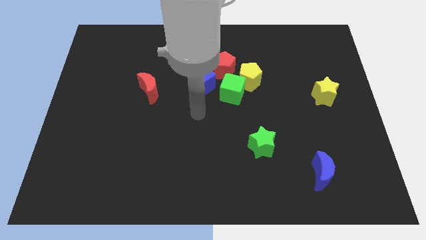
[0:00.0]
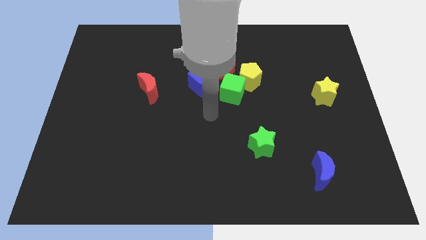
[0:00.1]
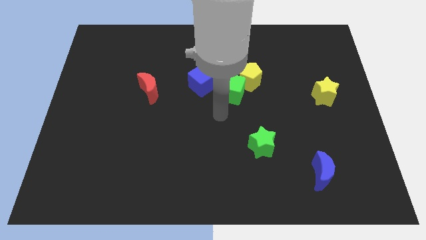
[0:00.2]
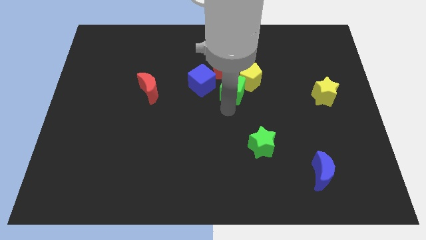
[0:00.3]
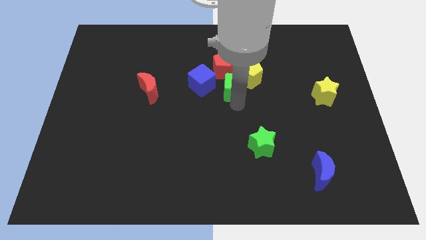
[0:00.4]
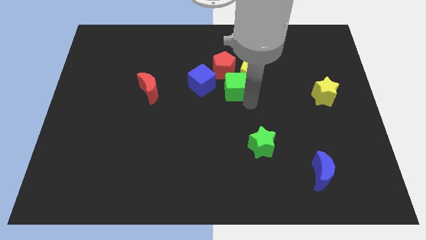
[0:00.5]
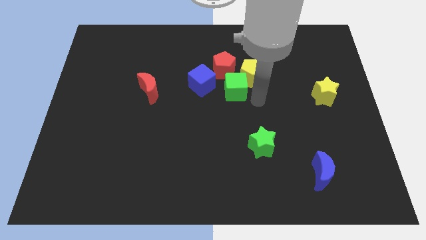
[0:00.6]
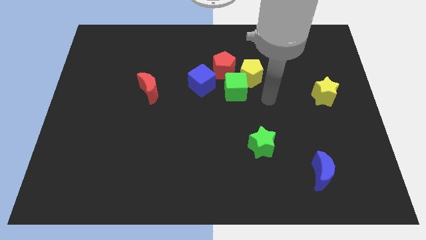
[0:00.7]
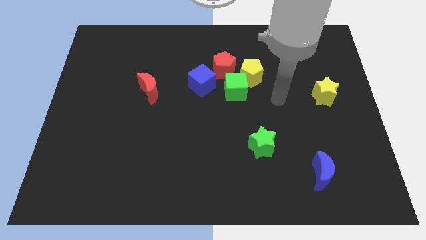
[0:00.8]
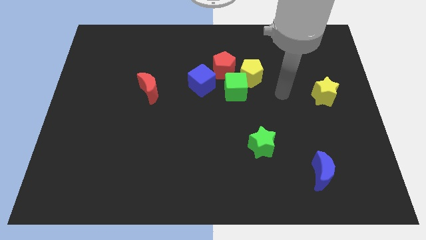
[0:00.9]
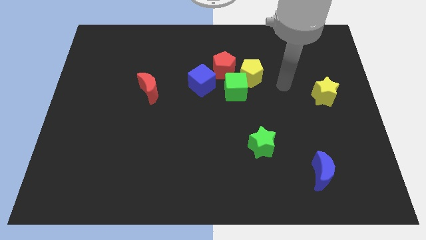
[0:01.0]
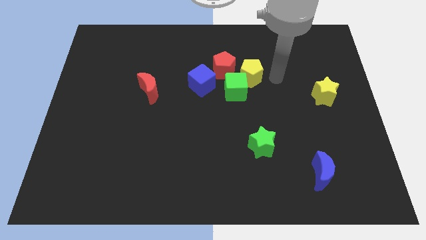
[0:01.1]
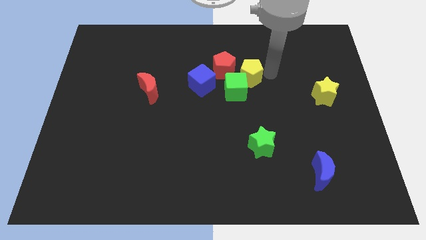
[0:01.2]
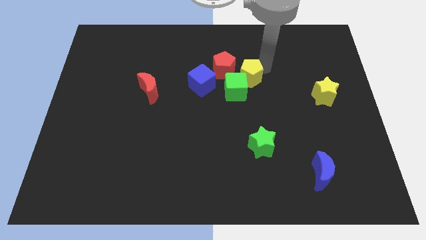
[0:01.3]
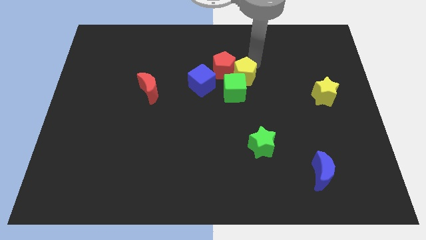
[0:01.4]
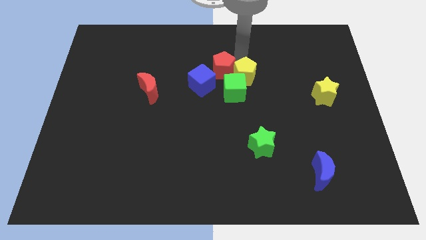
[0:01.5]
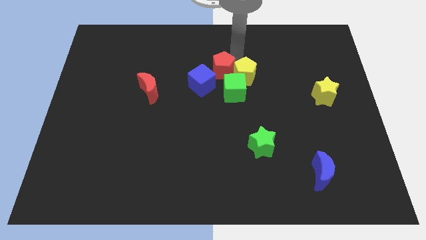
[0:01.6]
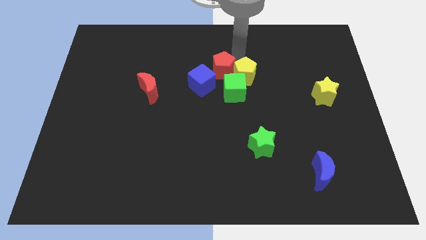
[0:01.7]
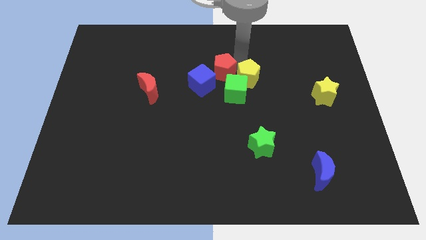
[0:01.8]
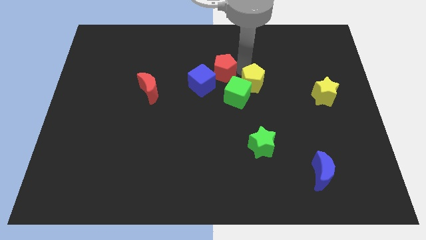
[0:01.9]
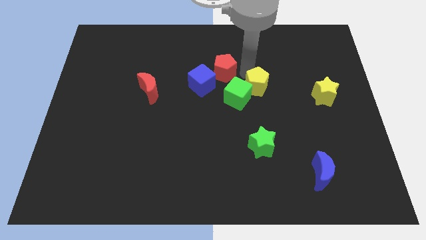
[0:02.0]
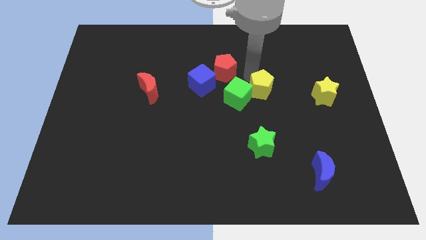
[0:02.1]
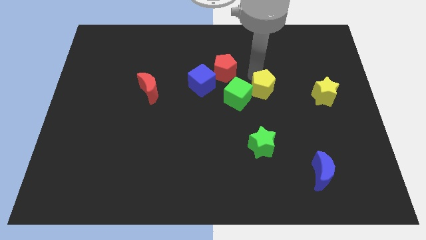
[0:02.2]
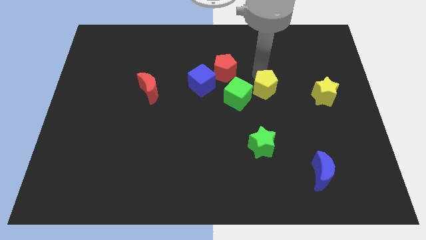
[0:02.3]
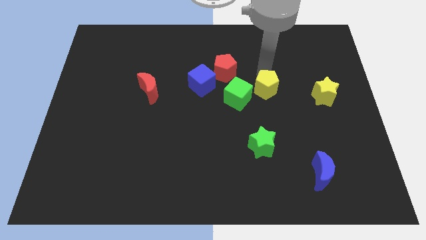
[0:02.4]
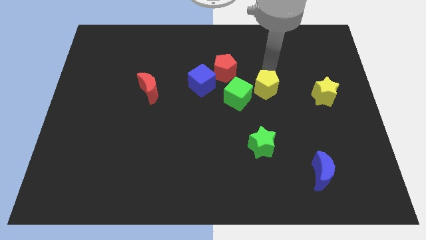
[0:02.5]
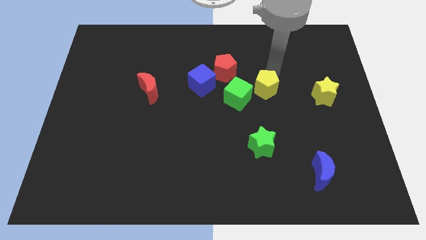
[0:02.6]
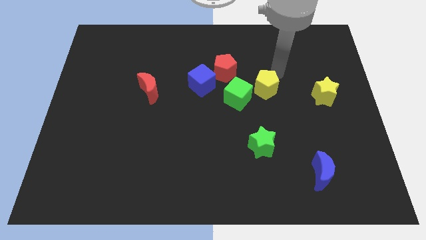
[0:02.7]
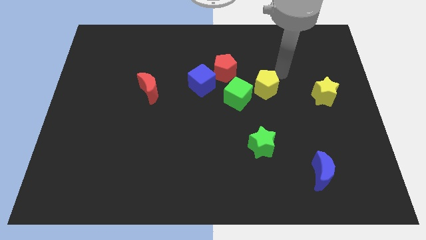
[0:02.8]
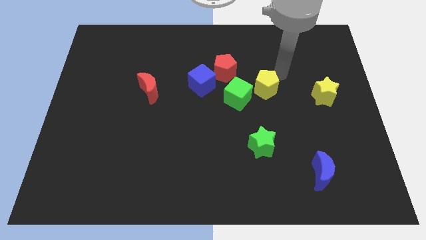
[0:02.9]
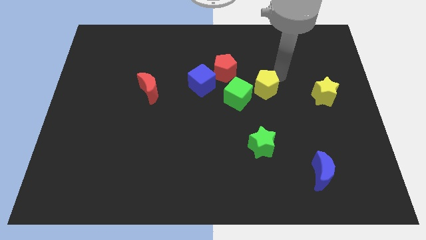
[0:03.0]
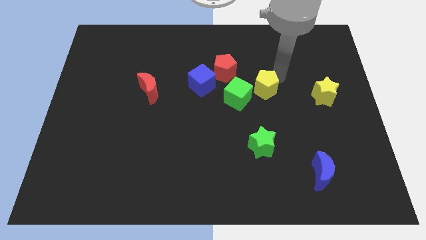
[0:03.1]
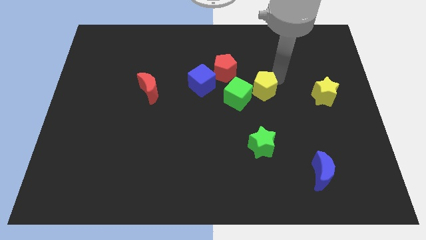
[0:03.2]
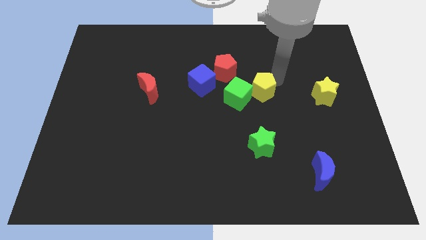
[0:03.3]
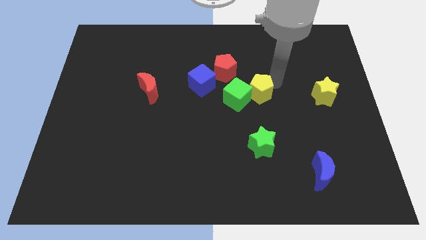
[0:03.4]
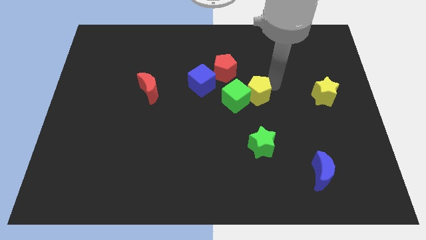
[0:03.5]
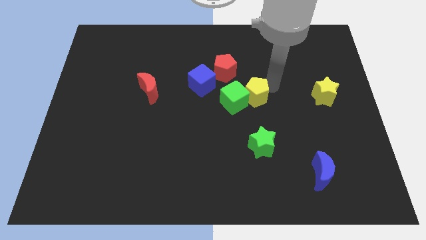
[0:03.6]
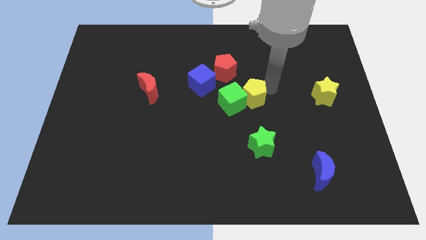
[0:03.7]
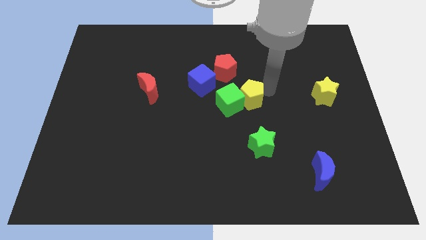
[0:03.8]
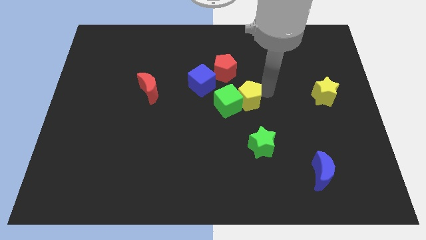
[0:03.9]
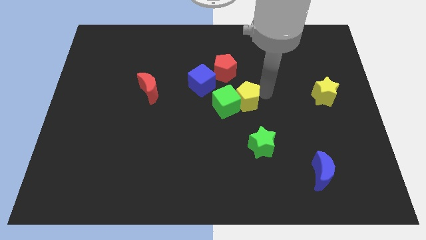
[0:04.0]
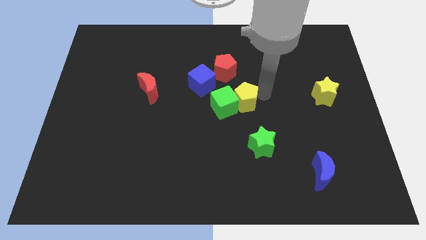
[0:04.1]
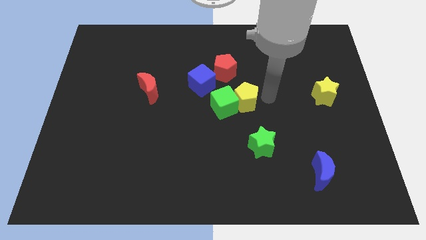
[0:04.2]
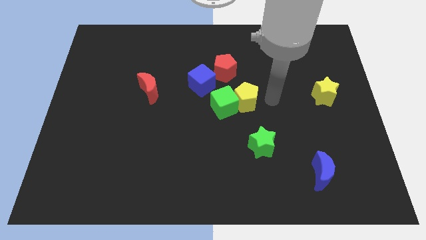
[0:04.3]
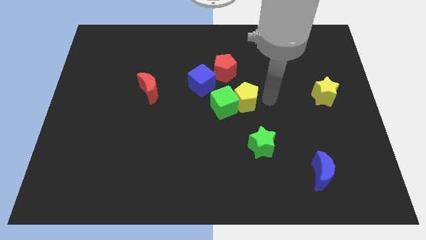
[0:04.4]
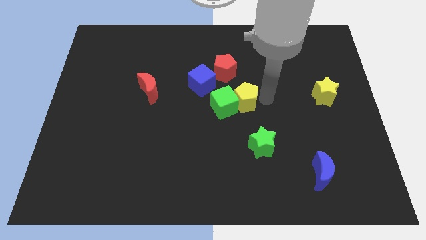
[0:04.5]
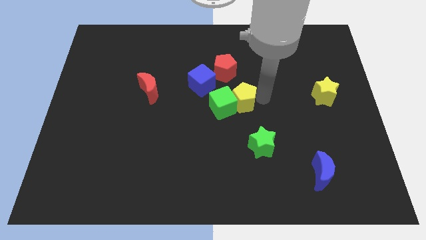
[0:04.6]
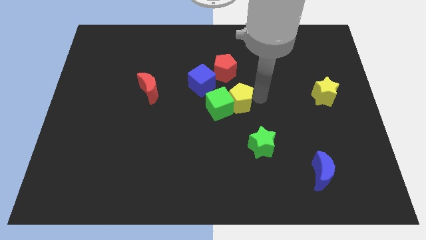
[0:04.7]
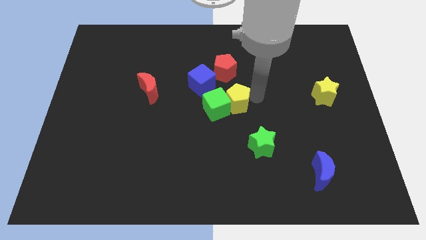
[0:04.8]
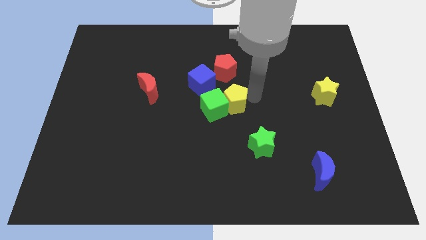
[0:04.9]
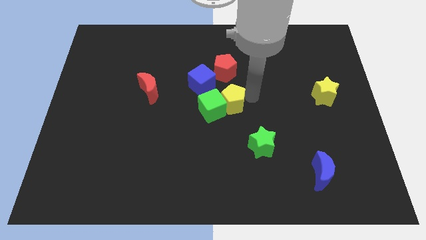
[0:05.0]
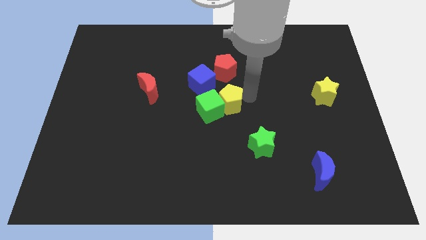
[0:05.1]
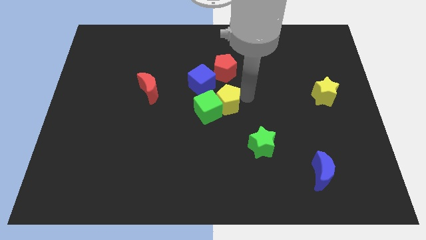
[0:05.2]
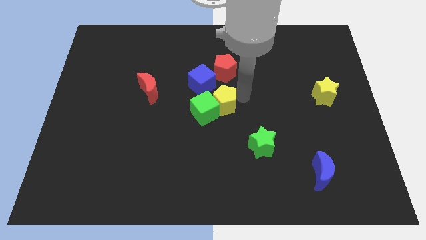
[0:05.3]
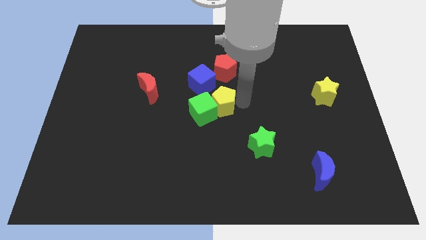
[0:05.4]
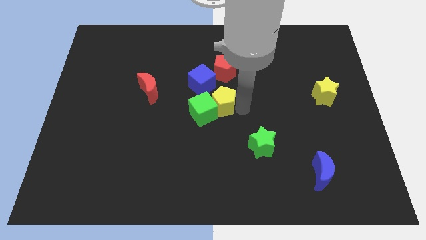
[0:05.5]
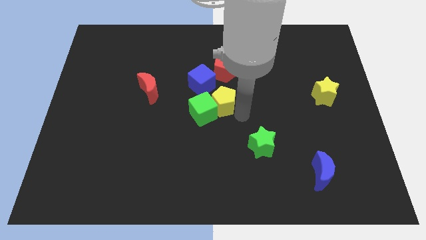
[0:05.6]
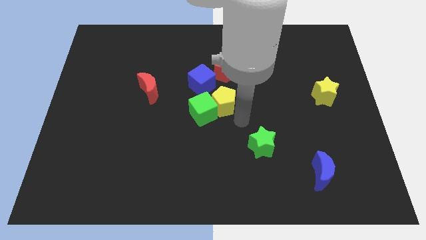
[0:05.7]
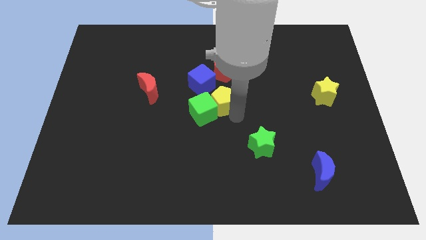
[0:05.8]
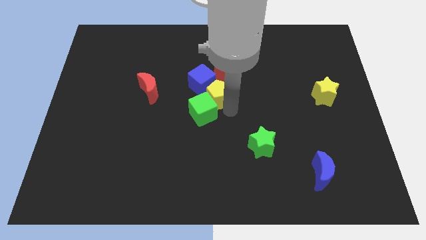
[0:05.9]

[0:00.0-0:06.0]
put the yellow pentagon towards the blue cube

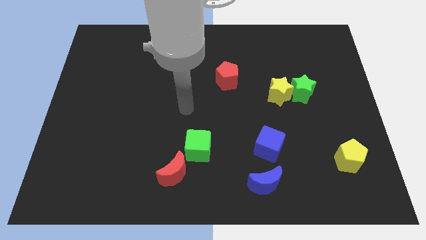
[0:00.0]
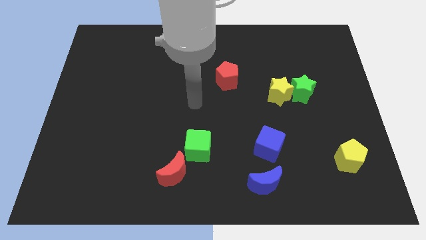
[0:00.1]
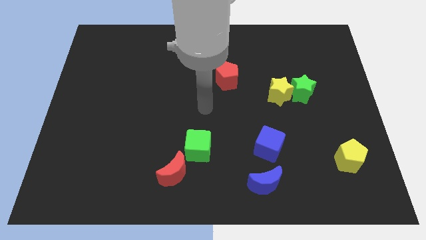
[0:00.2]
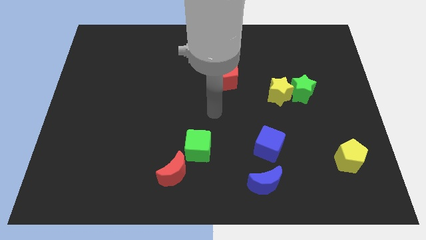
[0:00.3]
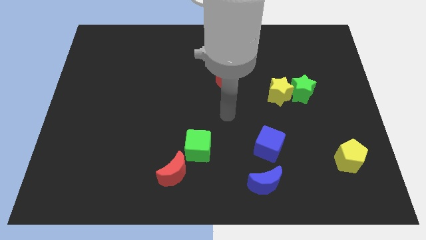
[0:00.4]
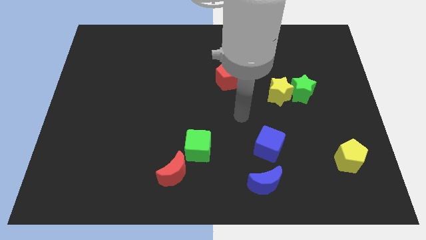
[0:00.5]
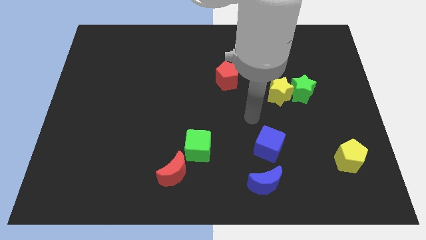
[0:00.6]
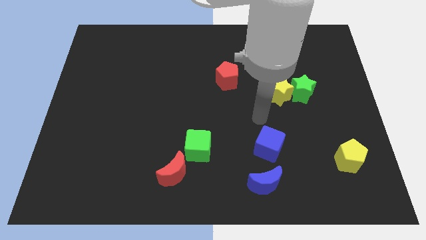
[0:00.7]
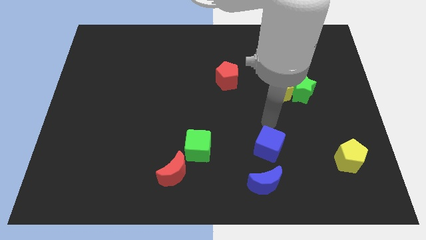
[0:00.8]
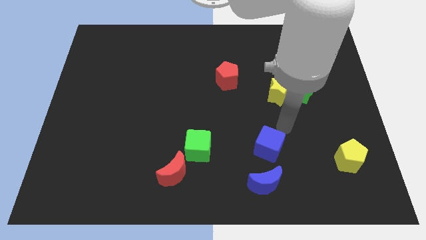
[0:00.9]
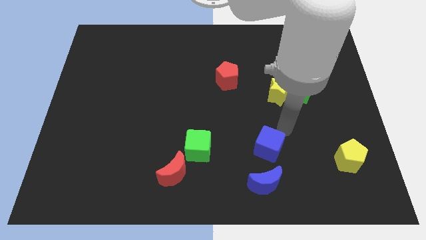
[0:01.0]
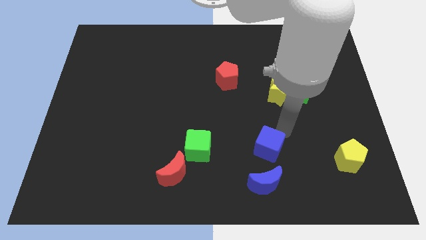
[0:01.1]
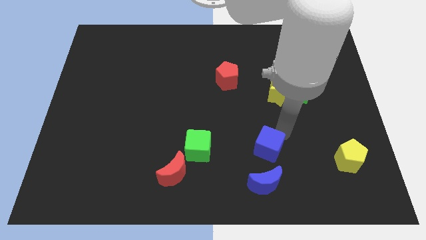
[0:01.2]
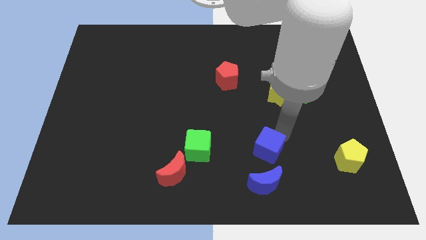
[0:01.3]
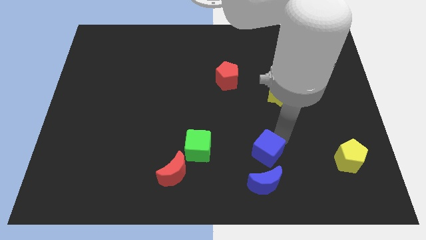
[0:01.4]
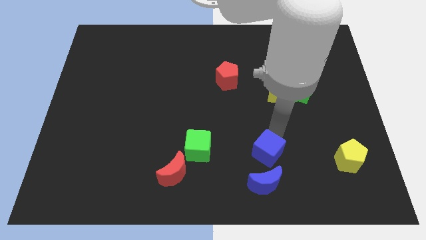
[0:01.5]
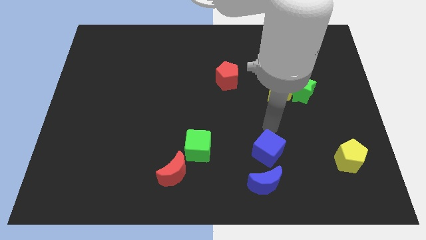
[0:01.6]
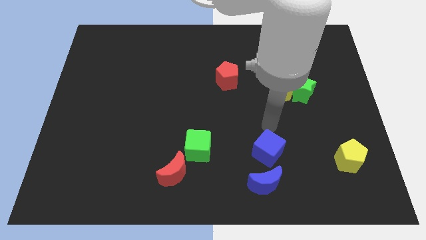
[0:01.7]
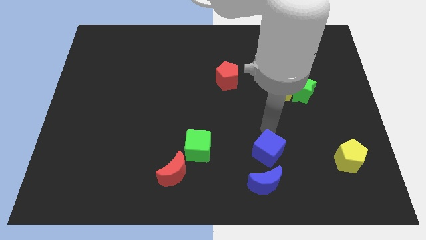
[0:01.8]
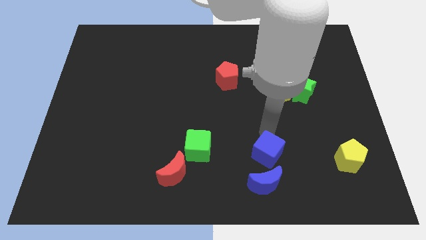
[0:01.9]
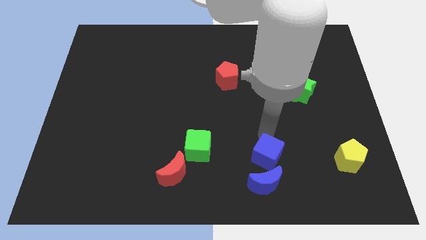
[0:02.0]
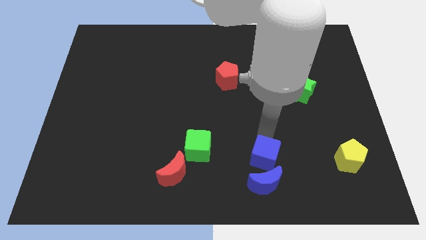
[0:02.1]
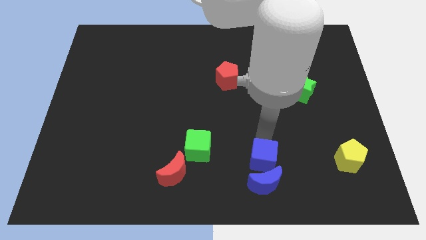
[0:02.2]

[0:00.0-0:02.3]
put the blue cube next to the blue moon
